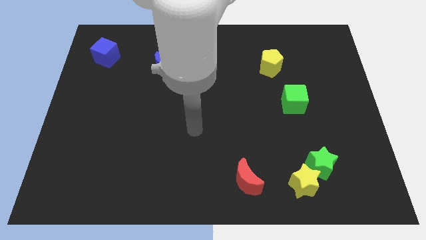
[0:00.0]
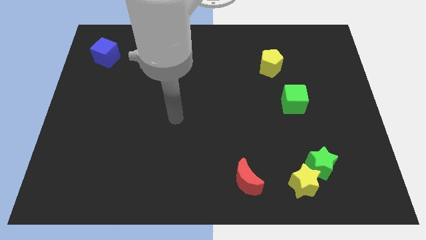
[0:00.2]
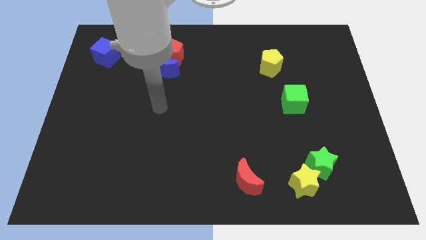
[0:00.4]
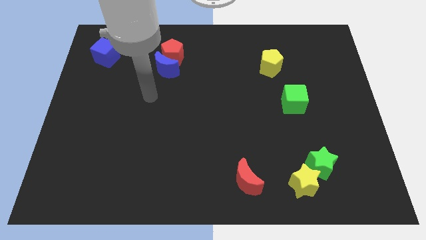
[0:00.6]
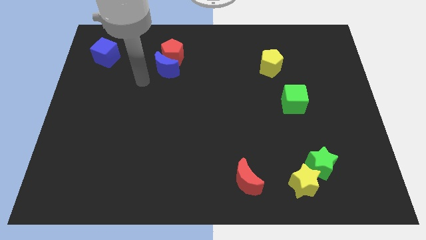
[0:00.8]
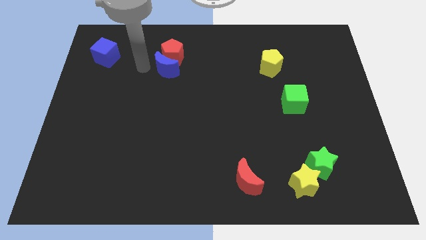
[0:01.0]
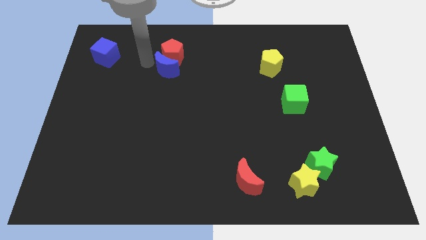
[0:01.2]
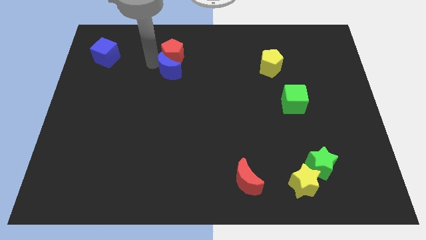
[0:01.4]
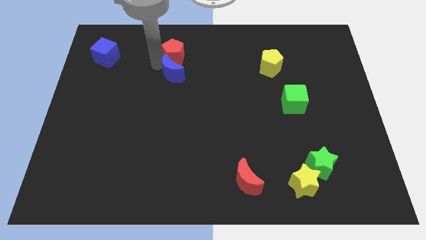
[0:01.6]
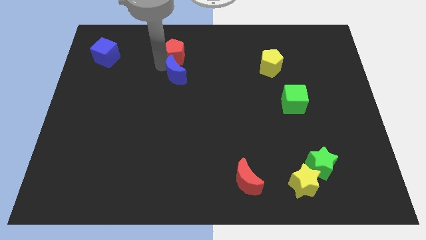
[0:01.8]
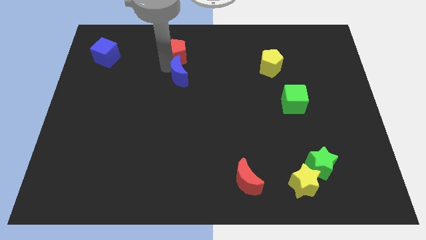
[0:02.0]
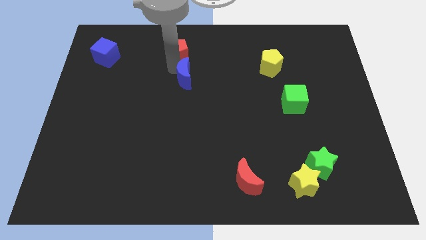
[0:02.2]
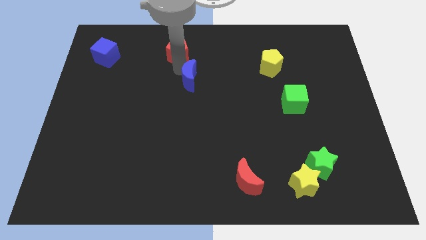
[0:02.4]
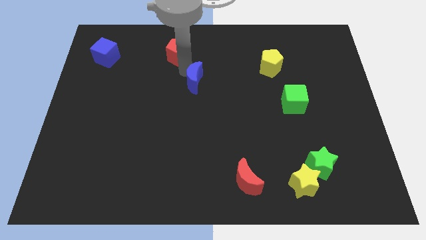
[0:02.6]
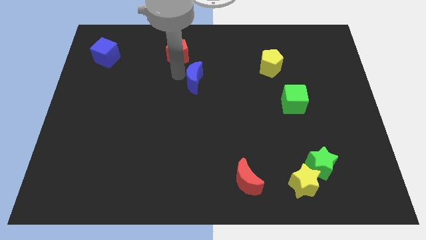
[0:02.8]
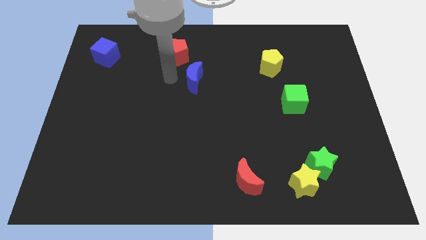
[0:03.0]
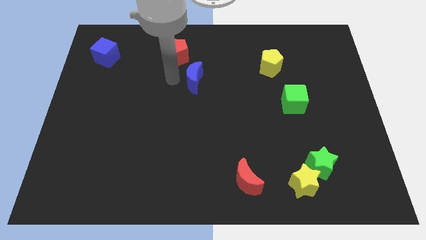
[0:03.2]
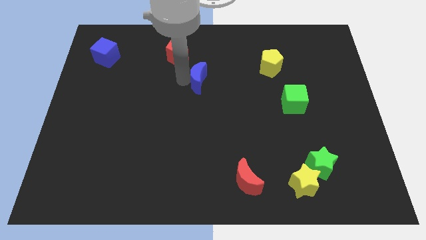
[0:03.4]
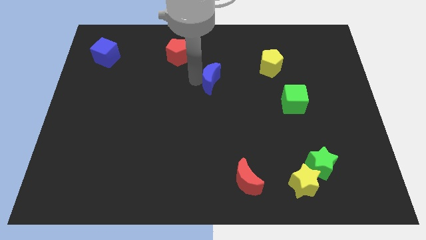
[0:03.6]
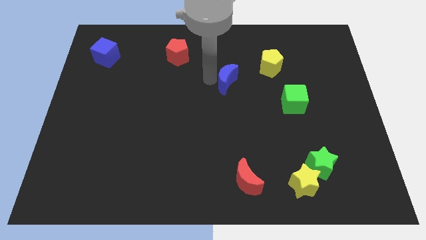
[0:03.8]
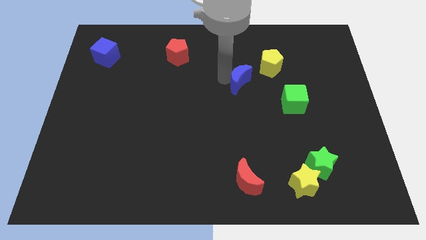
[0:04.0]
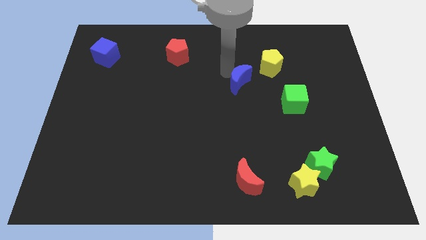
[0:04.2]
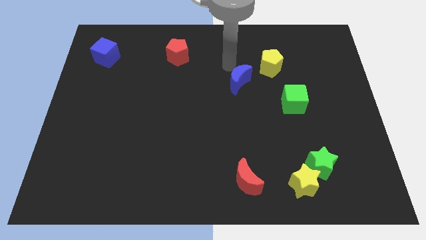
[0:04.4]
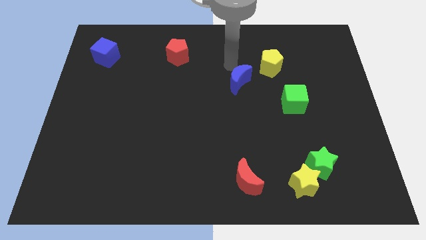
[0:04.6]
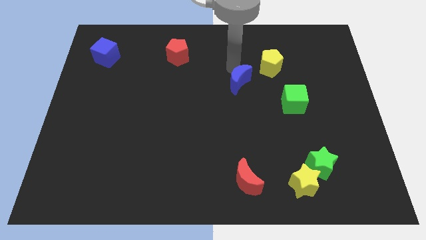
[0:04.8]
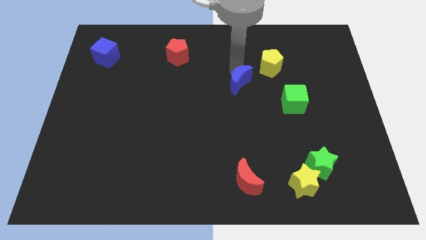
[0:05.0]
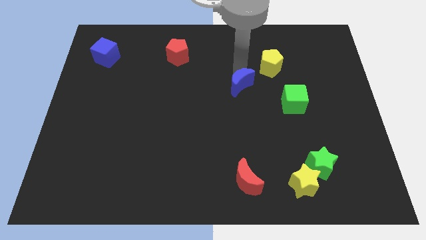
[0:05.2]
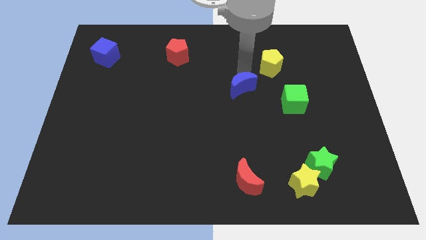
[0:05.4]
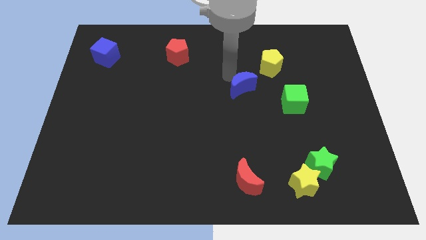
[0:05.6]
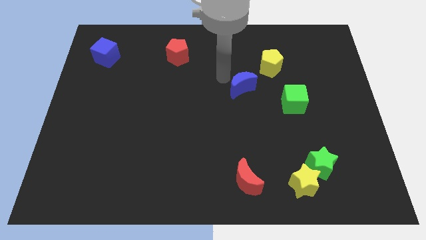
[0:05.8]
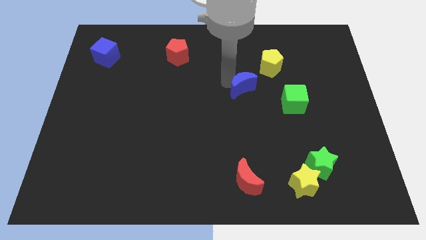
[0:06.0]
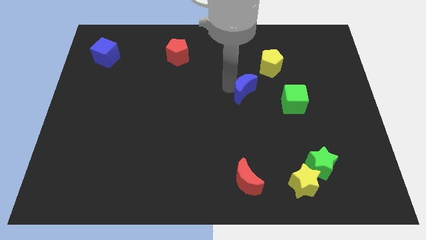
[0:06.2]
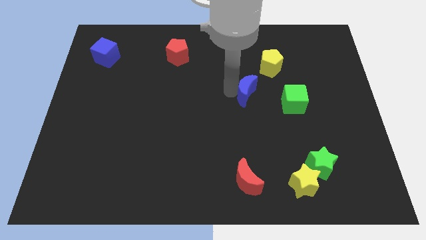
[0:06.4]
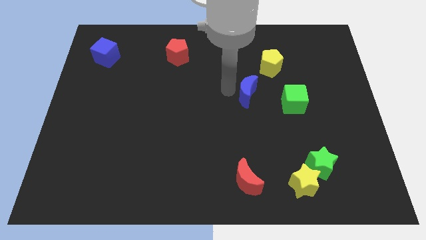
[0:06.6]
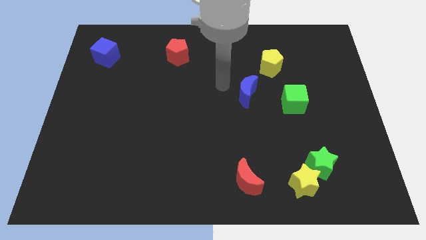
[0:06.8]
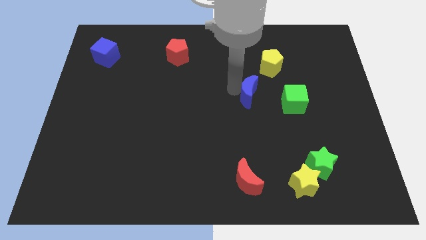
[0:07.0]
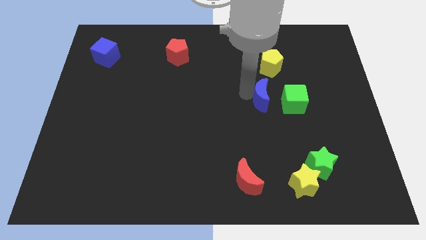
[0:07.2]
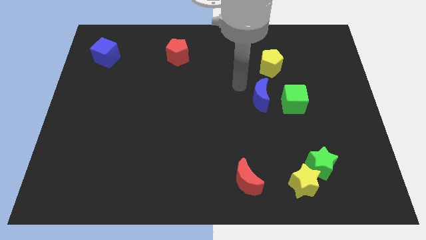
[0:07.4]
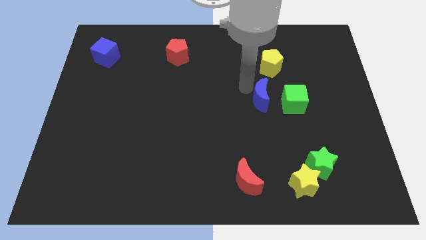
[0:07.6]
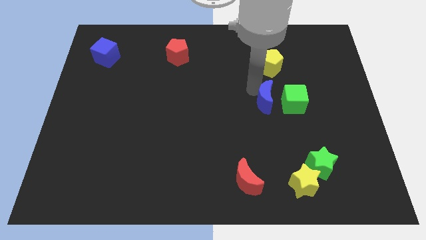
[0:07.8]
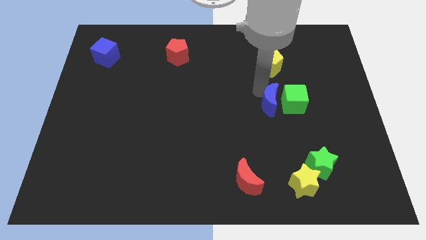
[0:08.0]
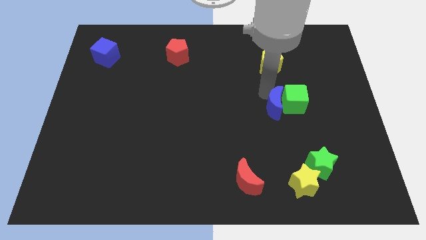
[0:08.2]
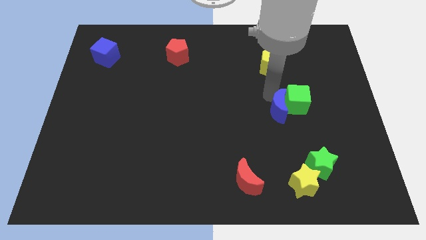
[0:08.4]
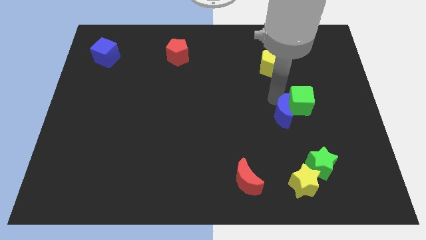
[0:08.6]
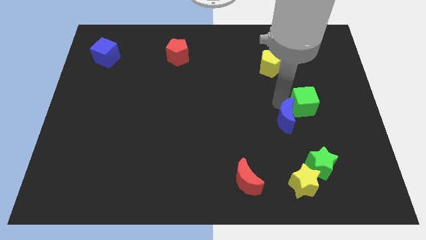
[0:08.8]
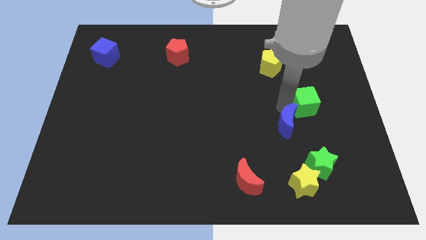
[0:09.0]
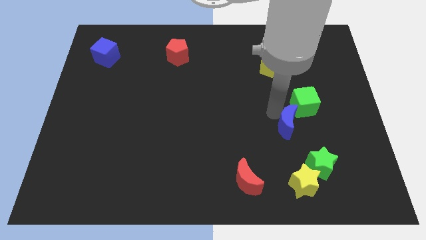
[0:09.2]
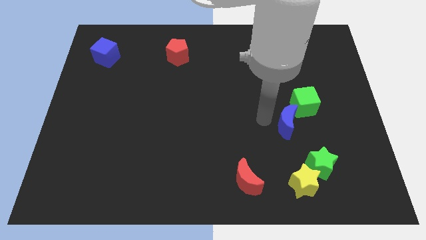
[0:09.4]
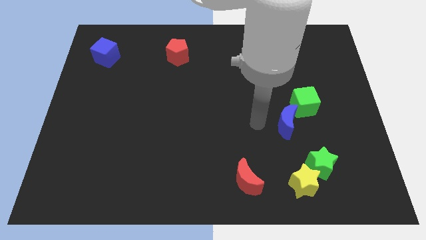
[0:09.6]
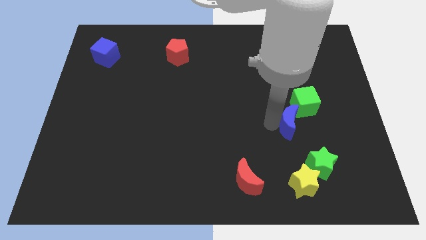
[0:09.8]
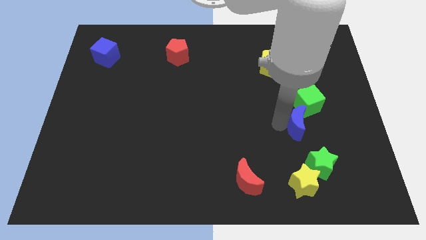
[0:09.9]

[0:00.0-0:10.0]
move the blue moon above the green star

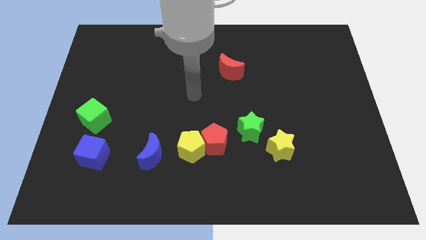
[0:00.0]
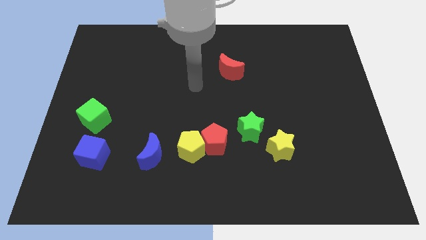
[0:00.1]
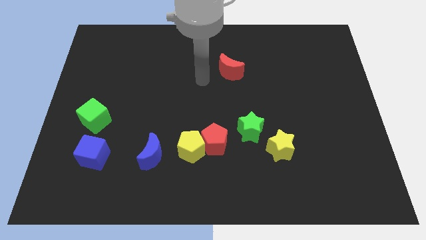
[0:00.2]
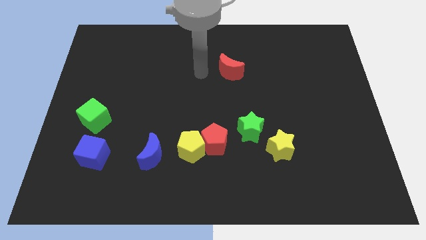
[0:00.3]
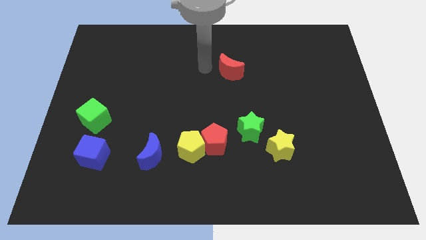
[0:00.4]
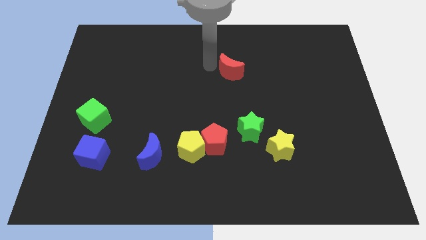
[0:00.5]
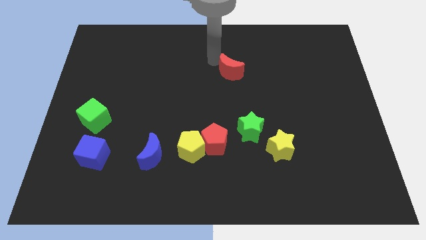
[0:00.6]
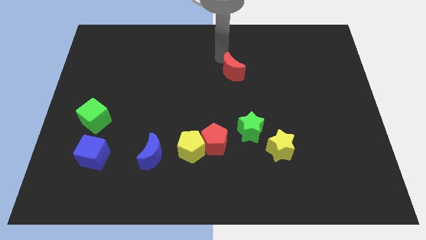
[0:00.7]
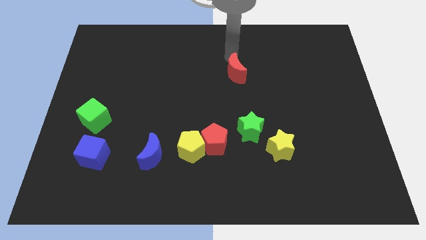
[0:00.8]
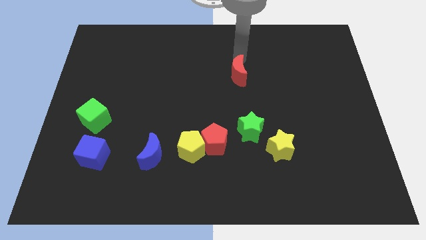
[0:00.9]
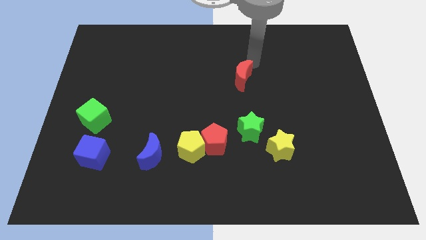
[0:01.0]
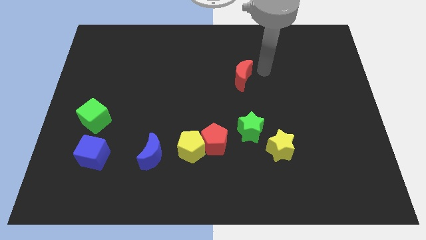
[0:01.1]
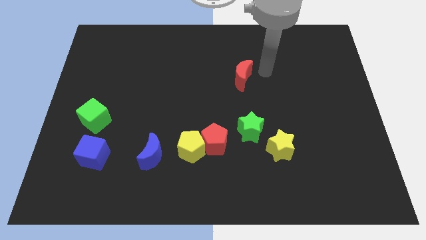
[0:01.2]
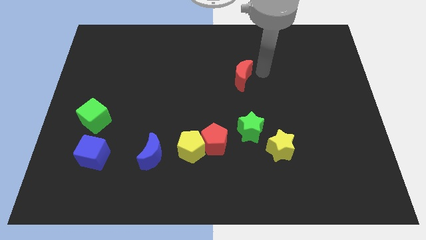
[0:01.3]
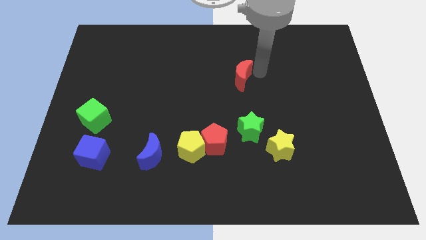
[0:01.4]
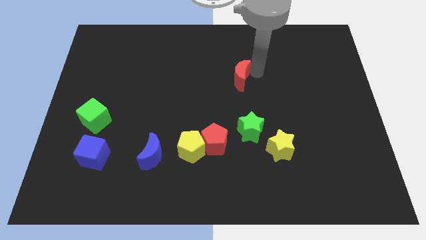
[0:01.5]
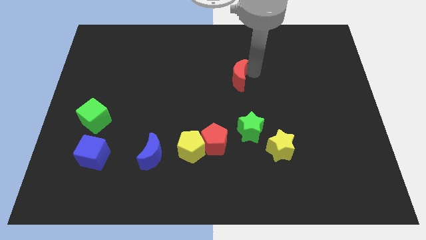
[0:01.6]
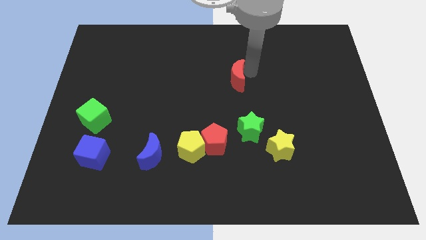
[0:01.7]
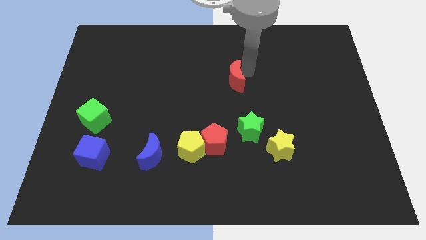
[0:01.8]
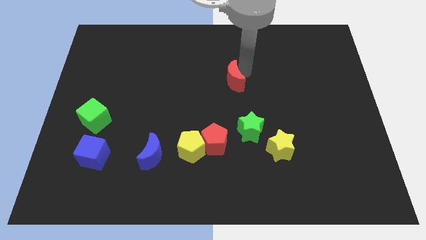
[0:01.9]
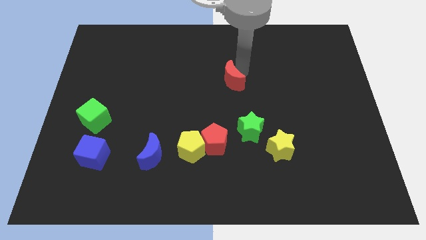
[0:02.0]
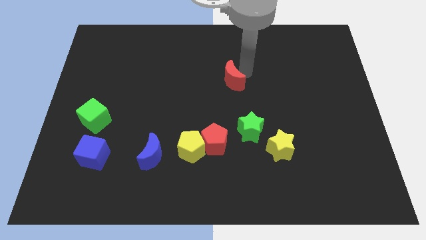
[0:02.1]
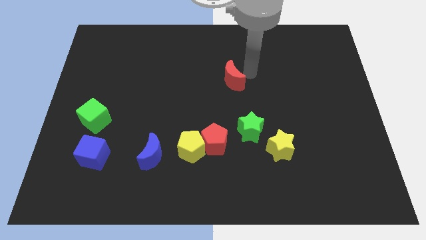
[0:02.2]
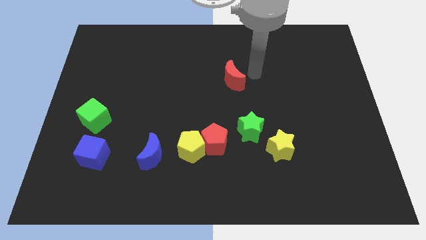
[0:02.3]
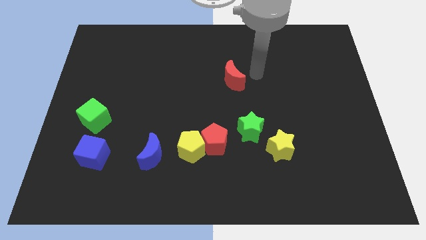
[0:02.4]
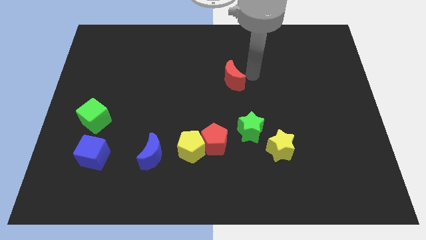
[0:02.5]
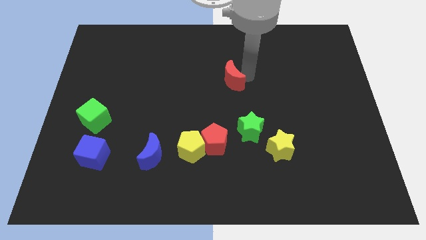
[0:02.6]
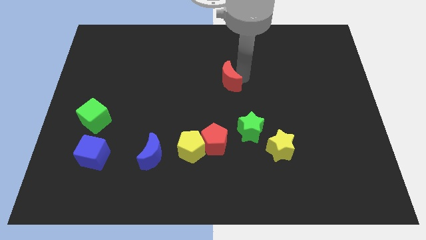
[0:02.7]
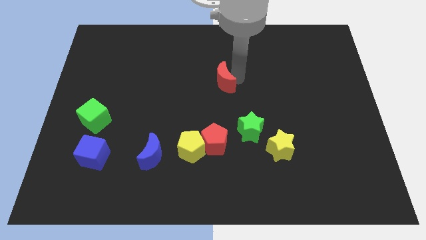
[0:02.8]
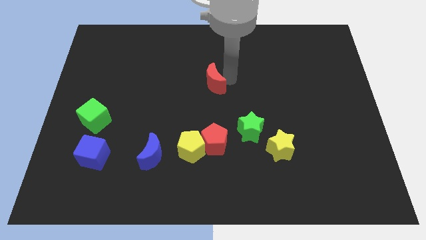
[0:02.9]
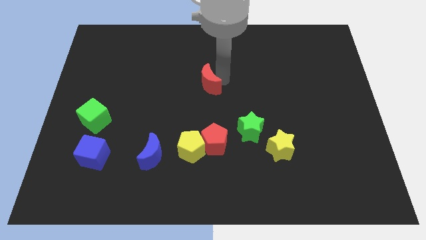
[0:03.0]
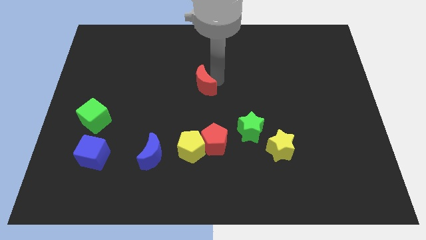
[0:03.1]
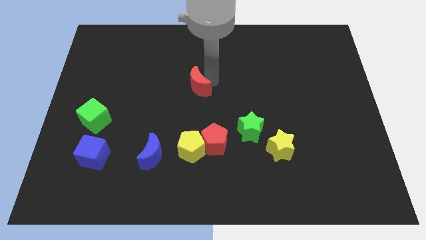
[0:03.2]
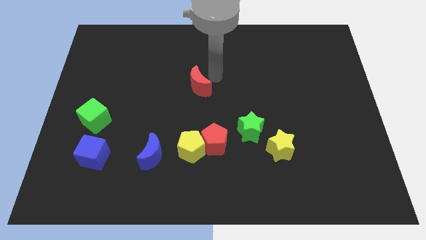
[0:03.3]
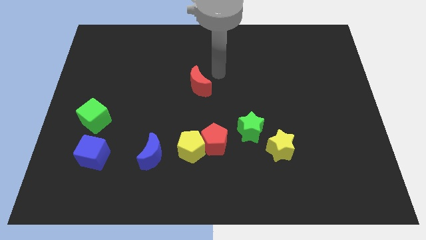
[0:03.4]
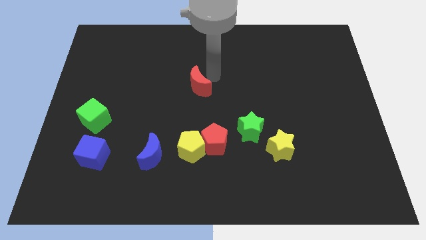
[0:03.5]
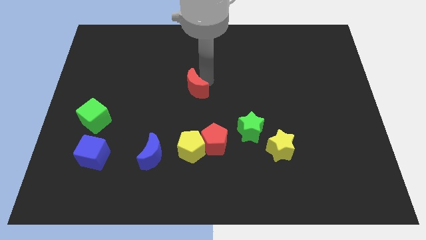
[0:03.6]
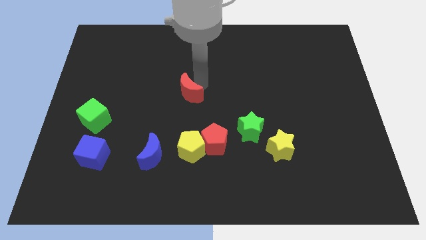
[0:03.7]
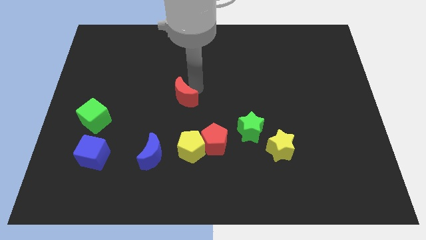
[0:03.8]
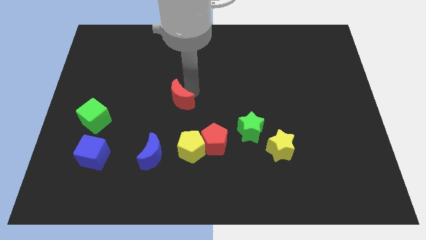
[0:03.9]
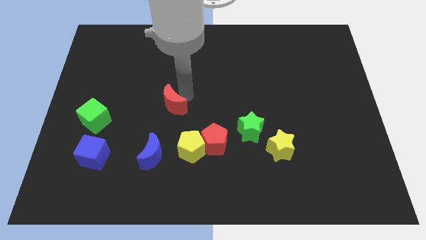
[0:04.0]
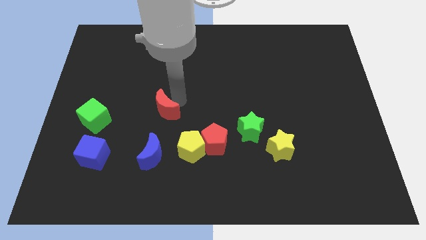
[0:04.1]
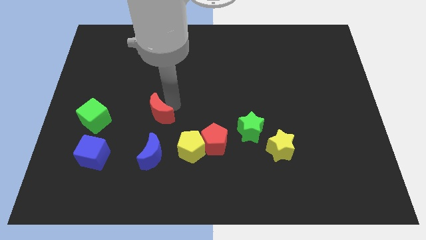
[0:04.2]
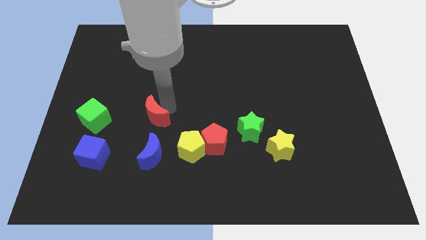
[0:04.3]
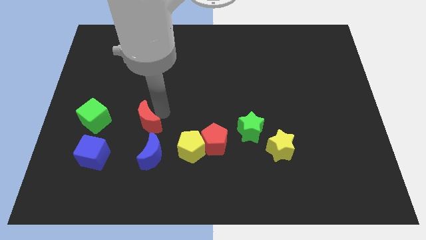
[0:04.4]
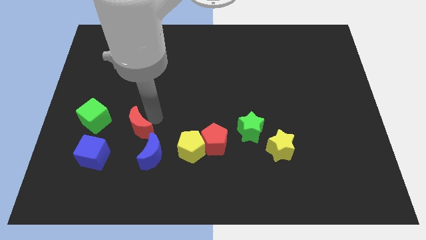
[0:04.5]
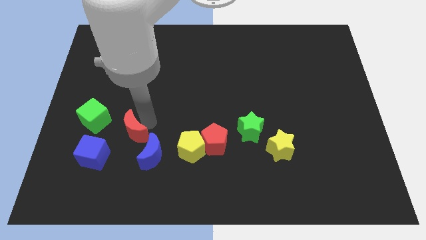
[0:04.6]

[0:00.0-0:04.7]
slide the red moon to the bottom right side of the green cube
